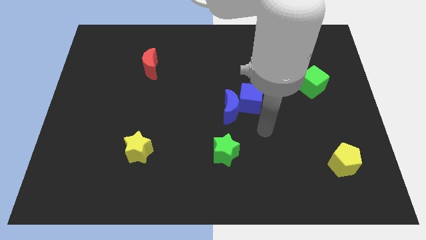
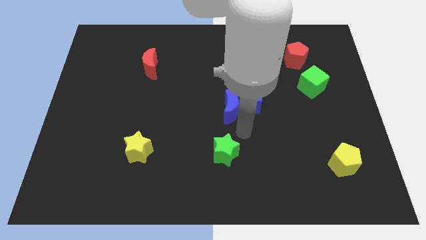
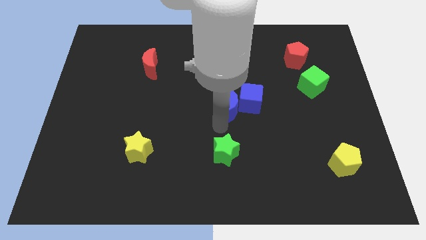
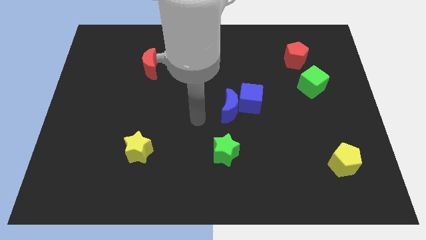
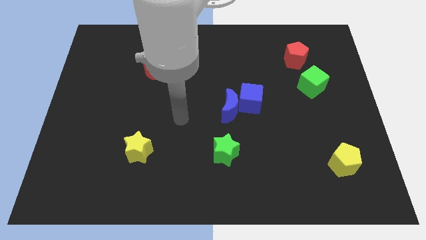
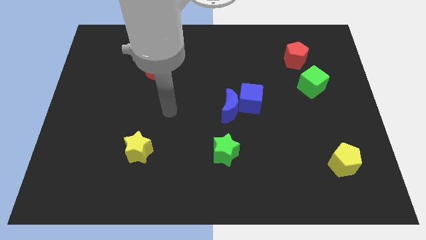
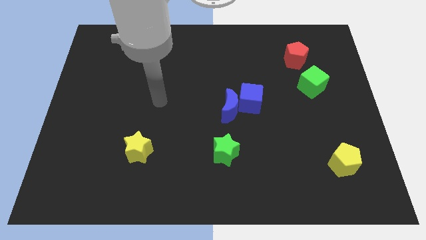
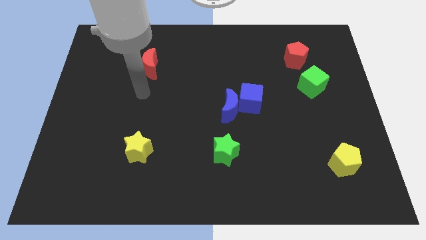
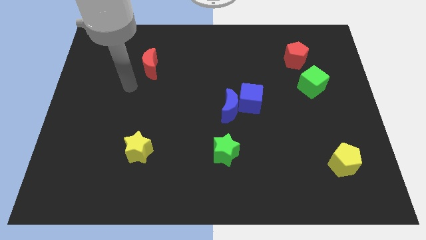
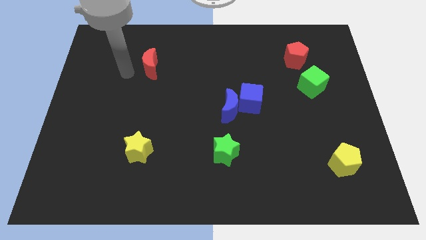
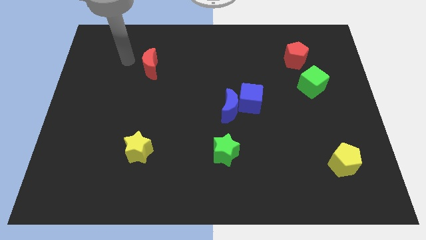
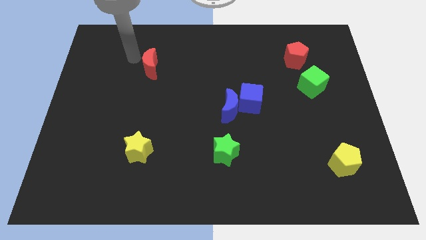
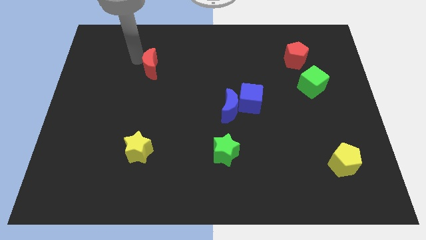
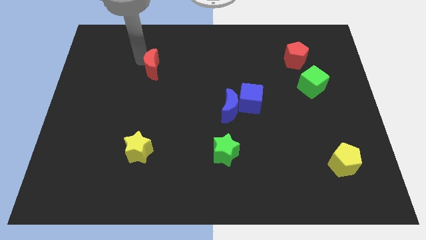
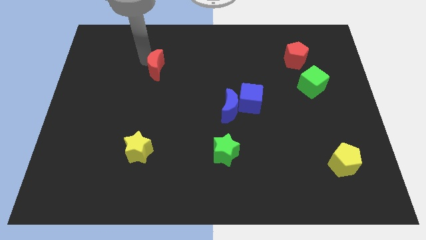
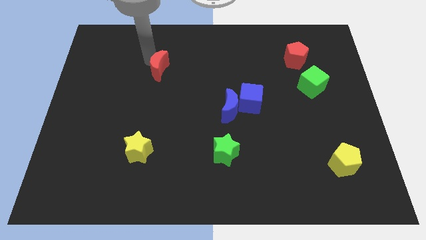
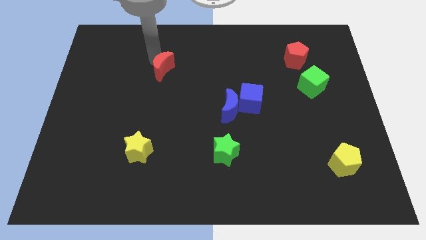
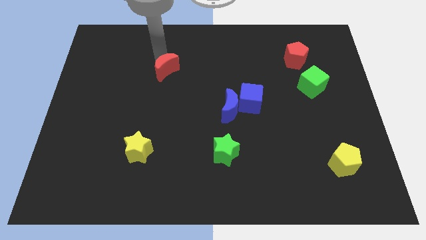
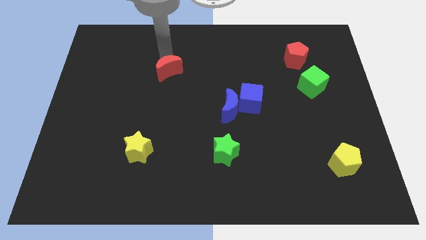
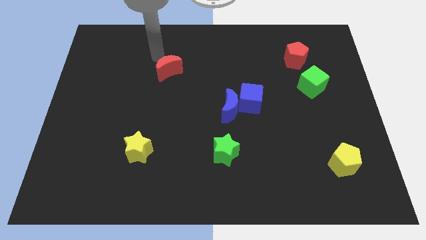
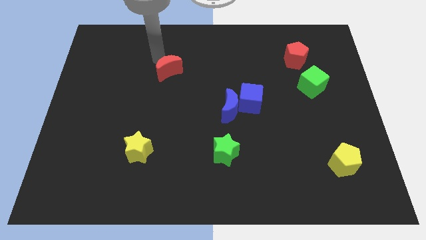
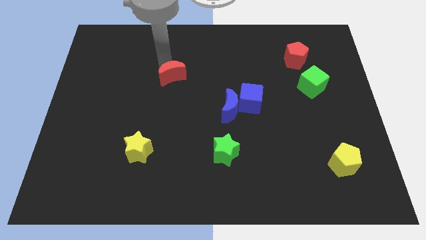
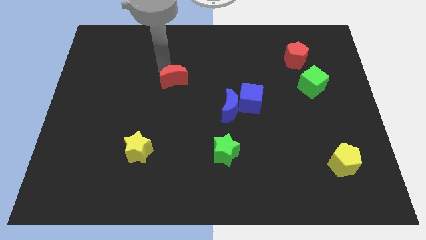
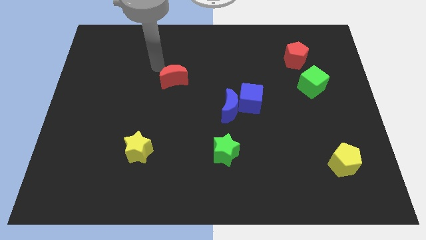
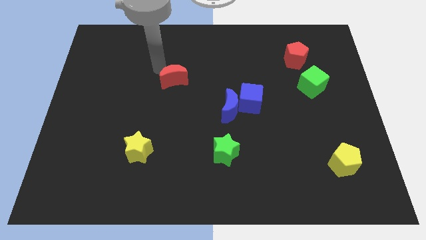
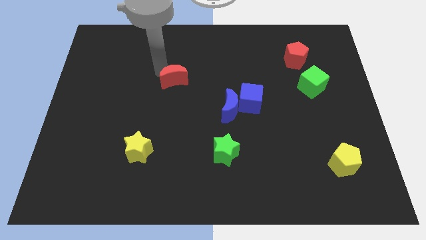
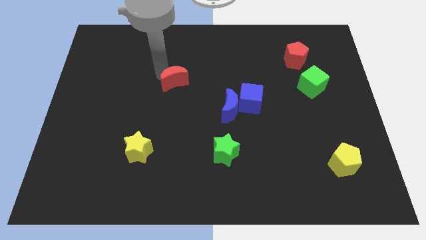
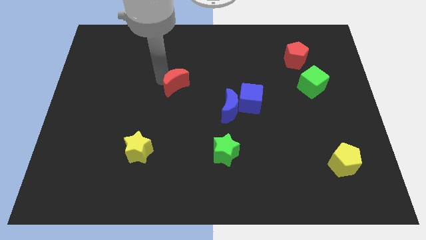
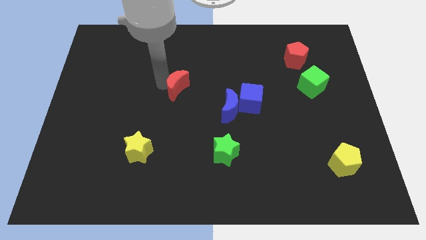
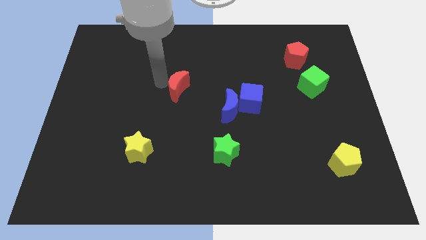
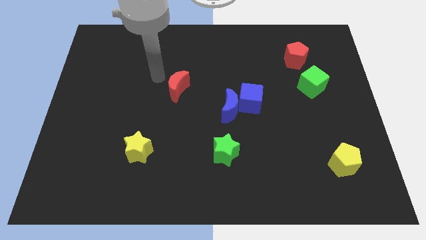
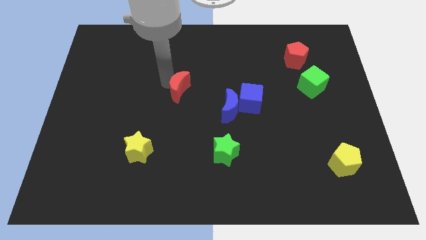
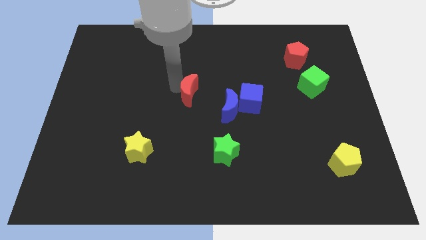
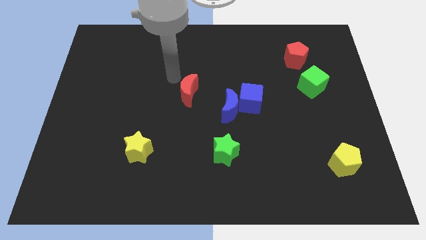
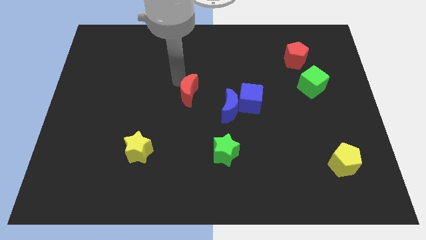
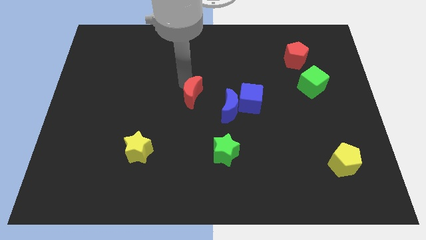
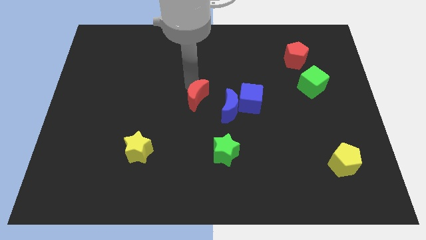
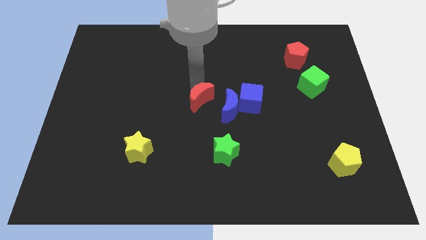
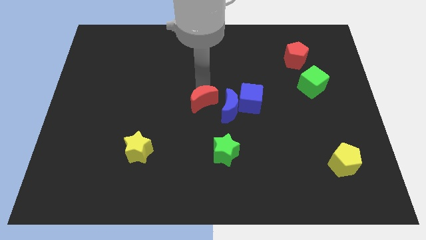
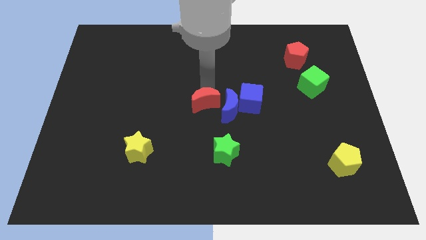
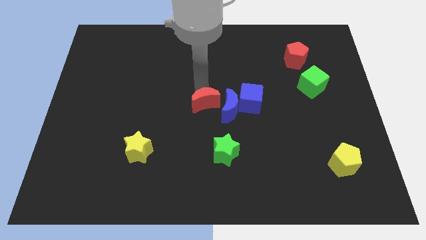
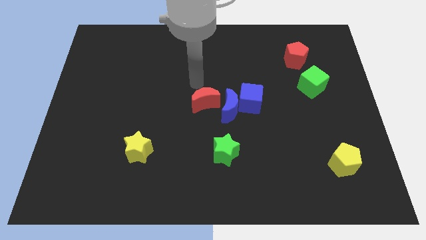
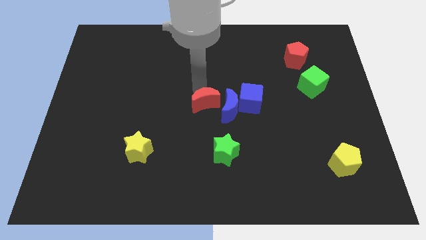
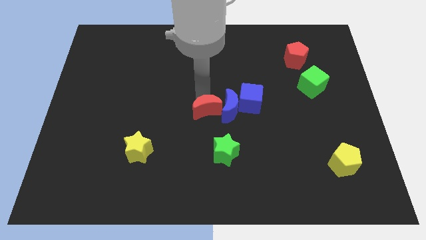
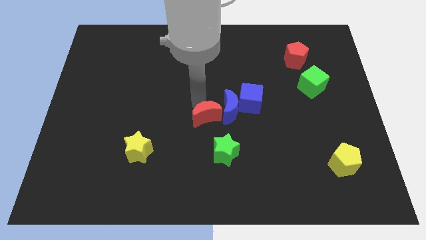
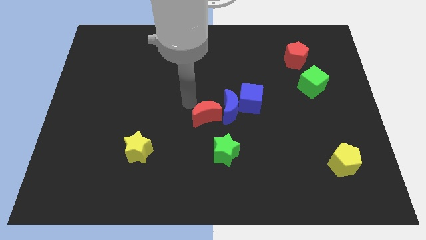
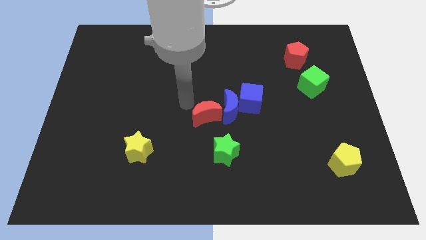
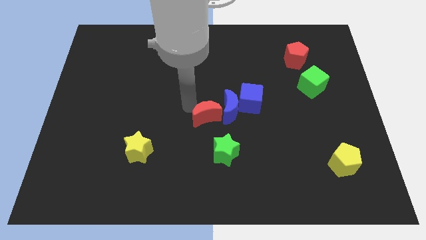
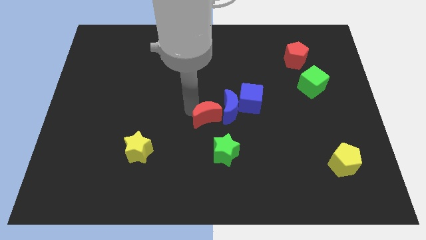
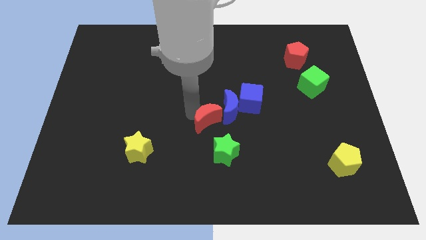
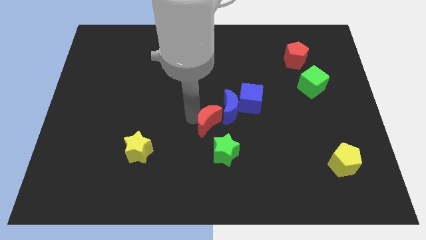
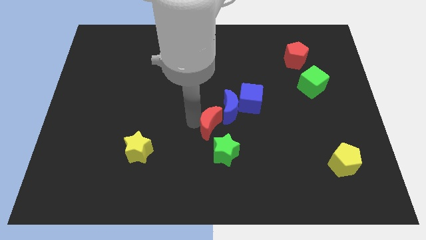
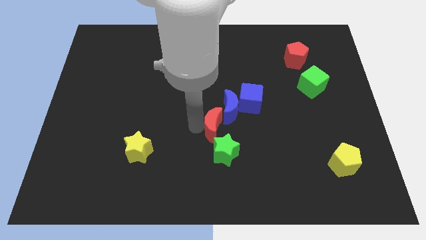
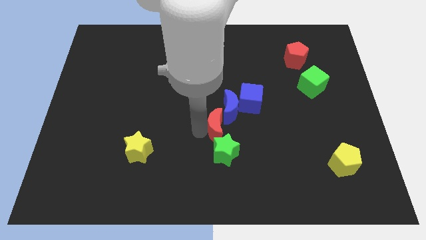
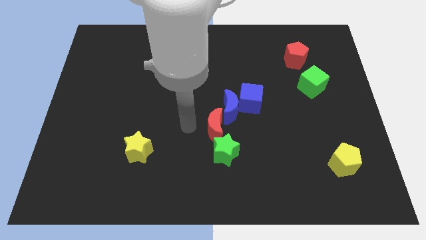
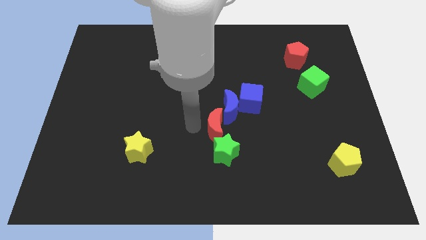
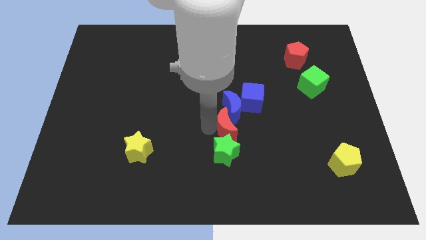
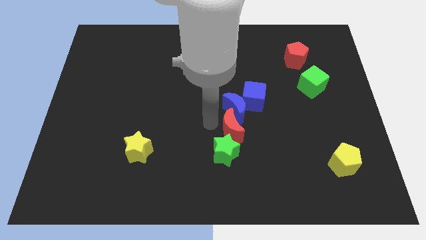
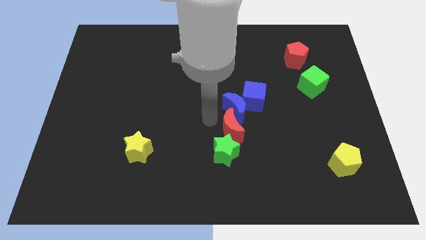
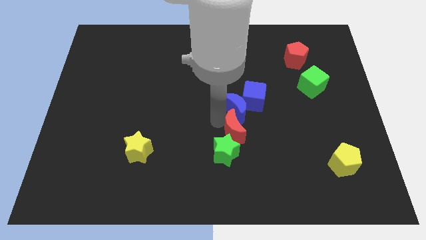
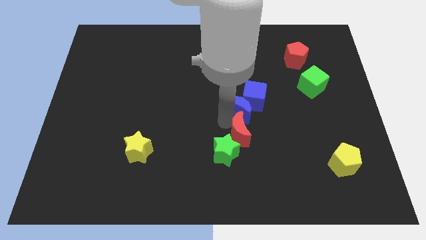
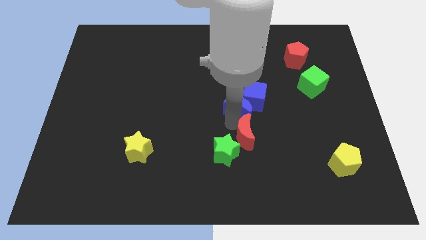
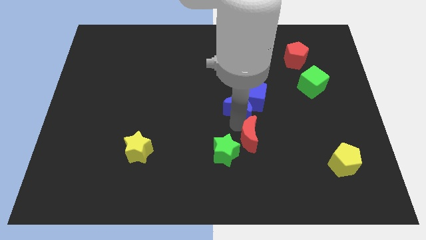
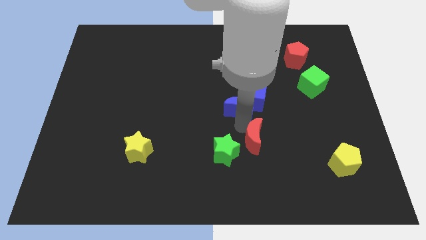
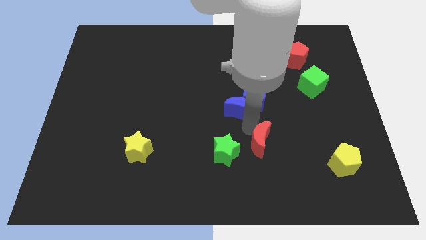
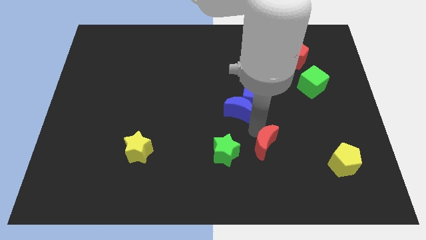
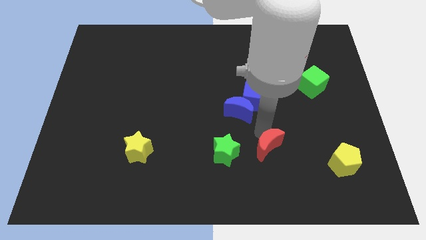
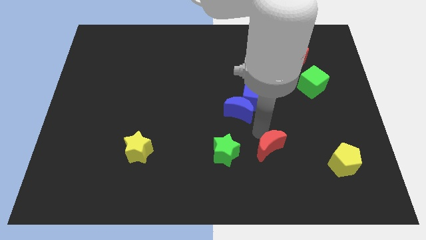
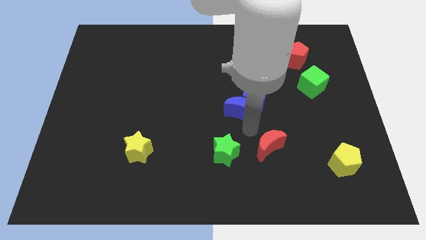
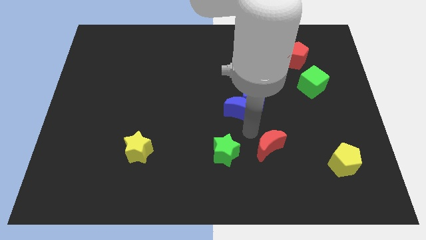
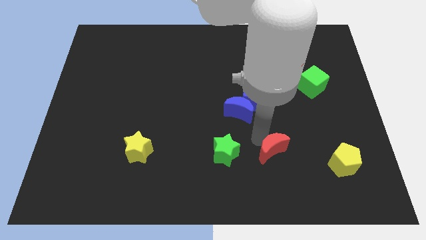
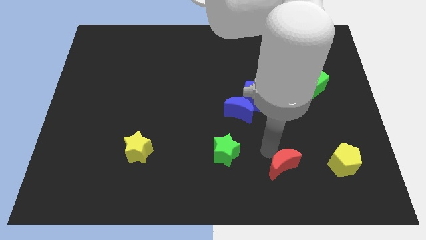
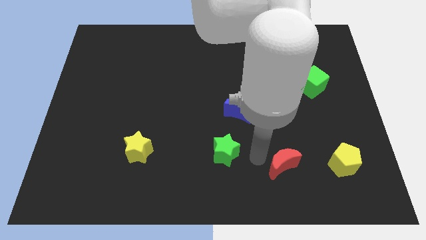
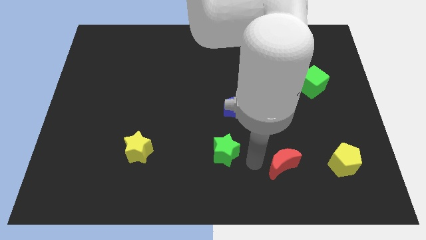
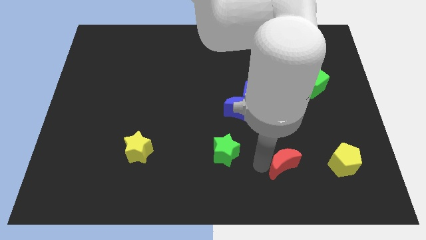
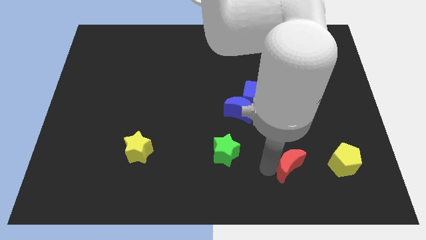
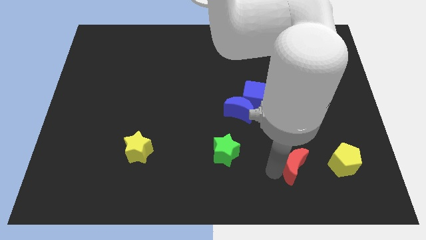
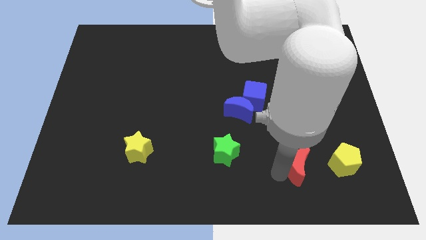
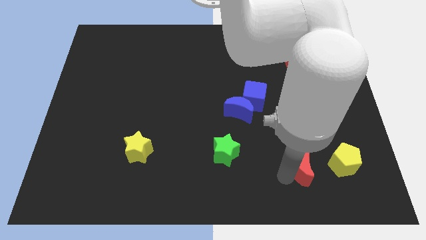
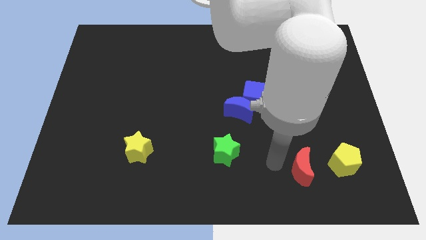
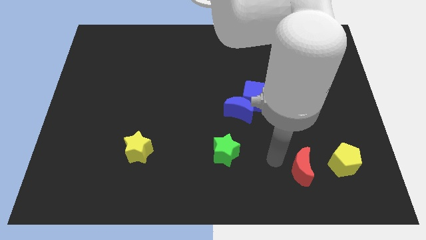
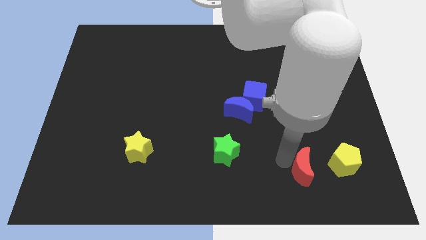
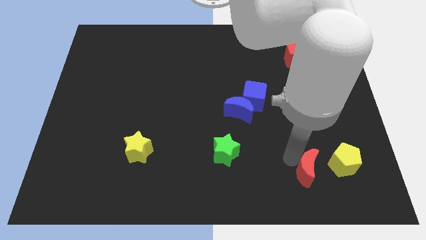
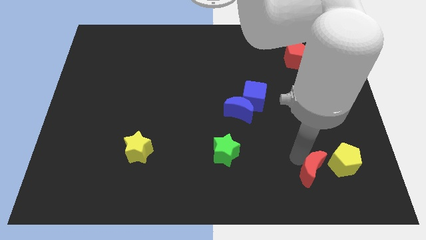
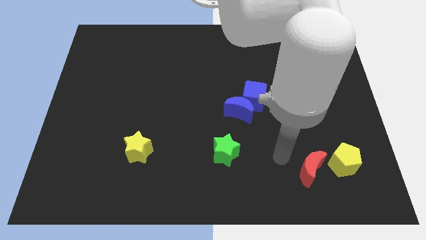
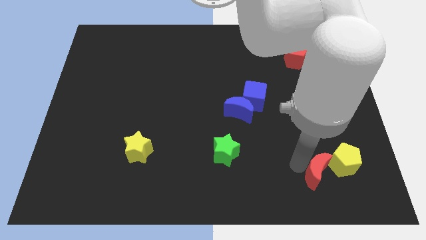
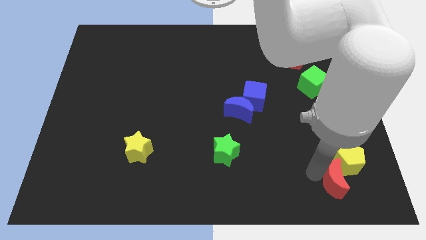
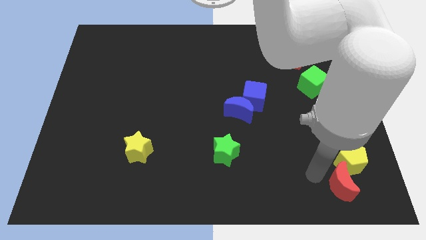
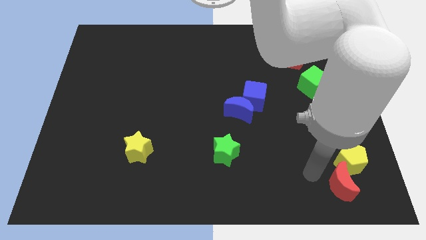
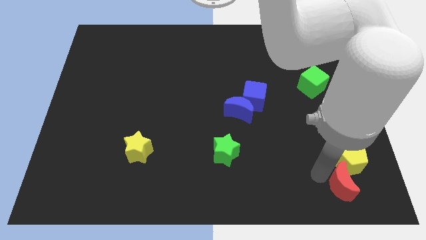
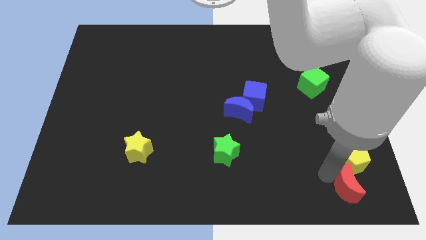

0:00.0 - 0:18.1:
slide the red moon to the bottom right corner
